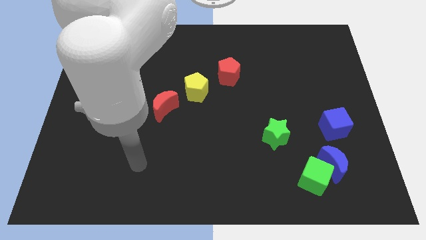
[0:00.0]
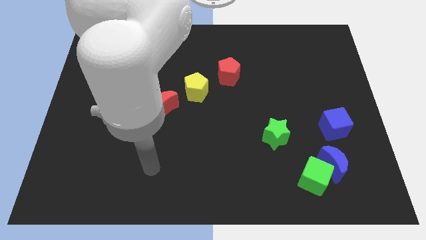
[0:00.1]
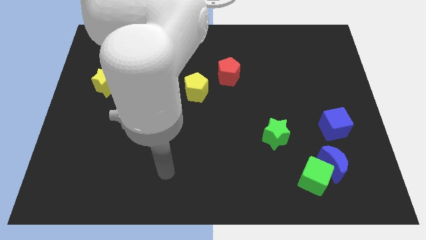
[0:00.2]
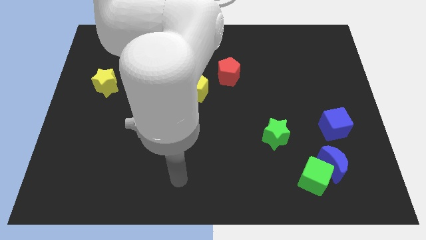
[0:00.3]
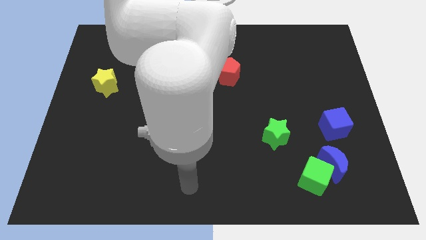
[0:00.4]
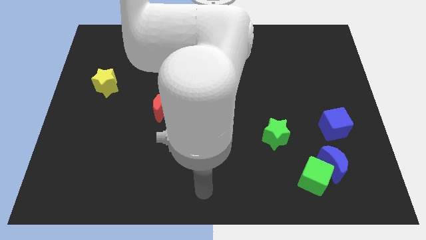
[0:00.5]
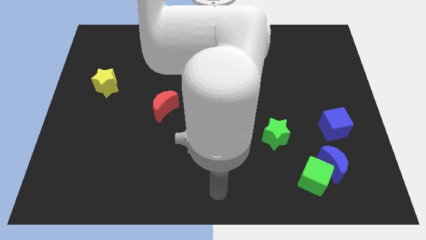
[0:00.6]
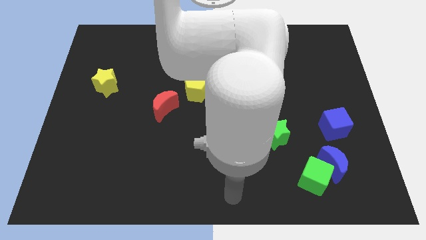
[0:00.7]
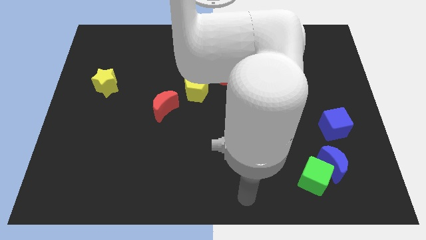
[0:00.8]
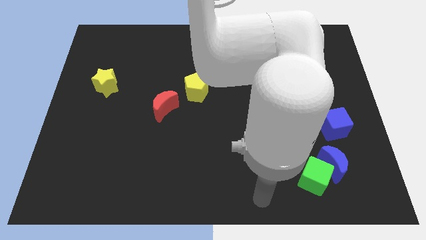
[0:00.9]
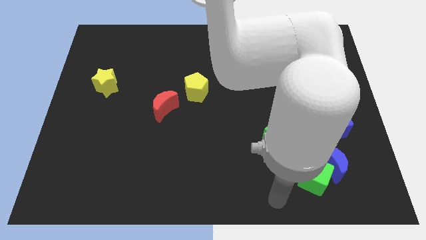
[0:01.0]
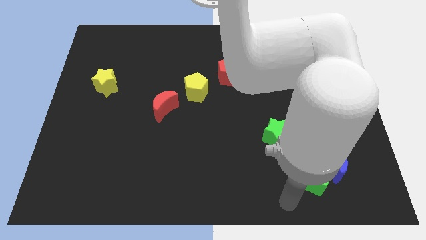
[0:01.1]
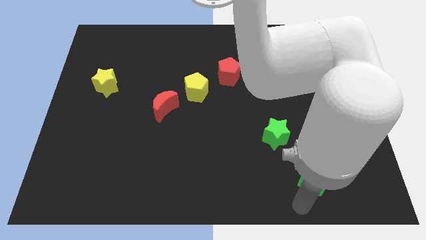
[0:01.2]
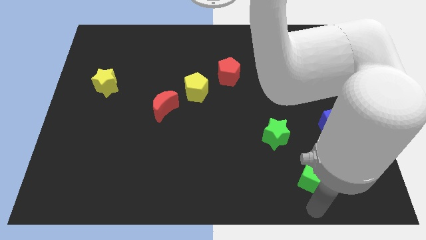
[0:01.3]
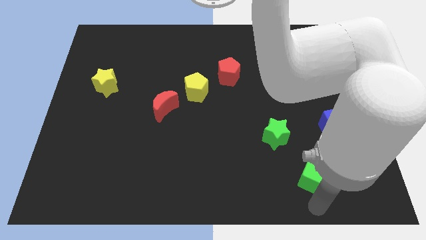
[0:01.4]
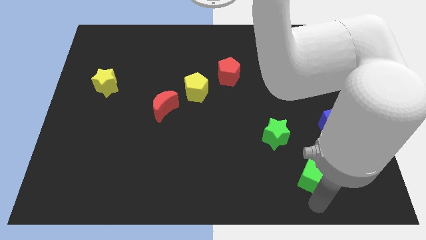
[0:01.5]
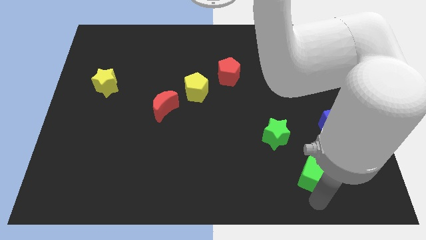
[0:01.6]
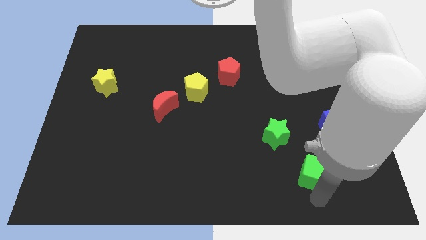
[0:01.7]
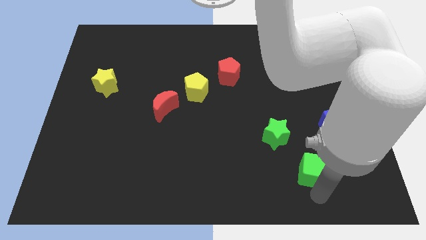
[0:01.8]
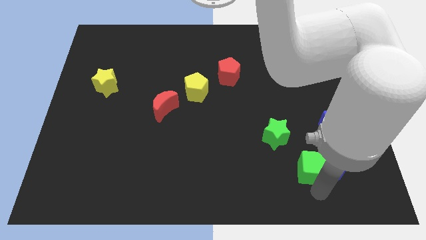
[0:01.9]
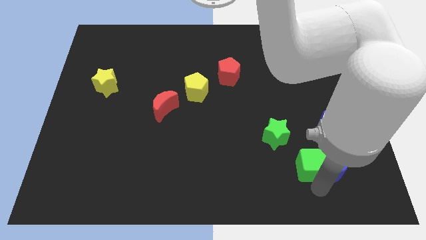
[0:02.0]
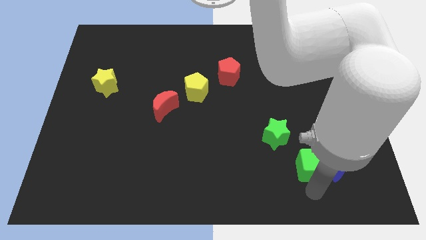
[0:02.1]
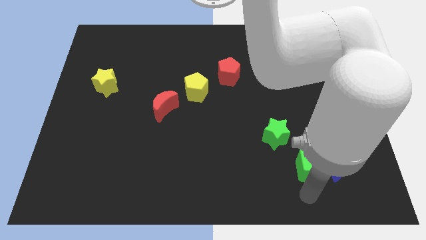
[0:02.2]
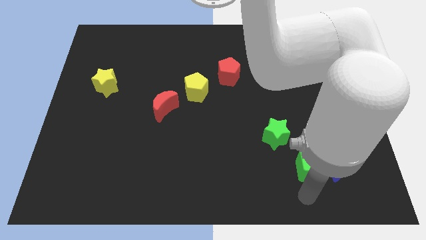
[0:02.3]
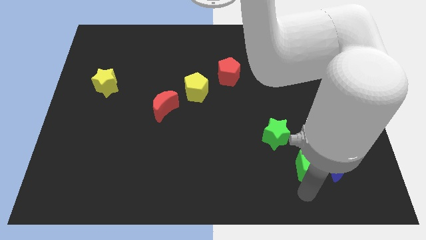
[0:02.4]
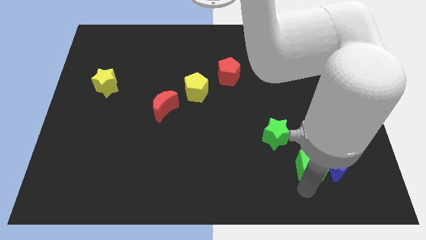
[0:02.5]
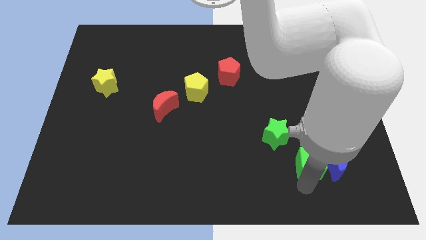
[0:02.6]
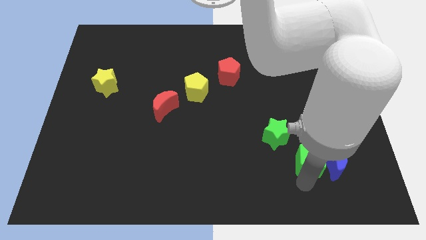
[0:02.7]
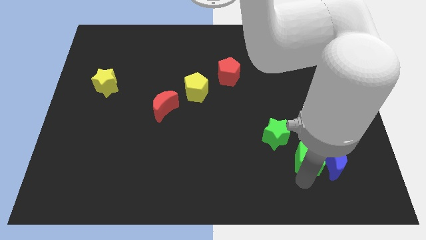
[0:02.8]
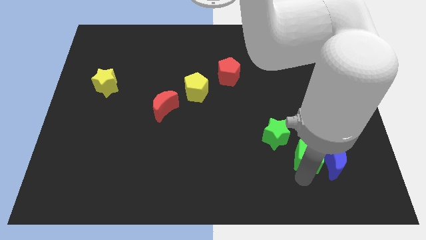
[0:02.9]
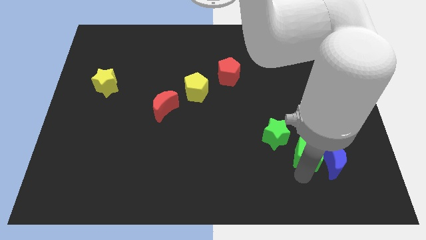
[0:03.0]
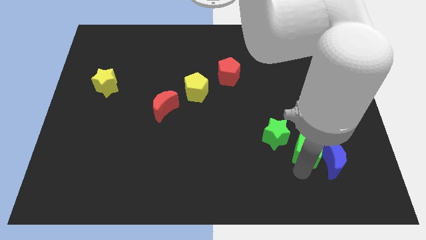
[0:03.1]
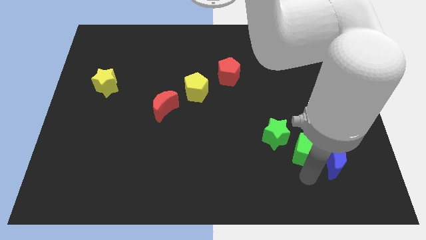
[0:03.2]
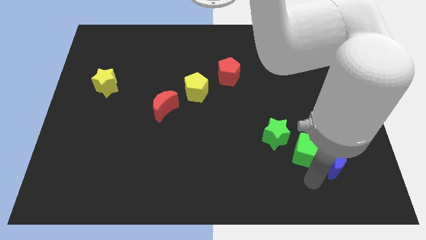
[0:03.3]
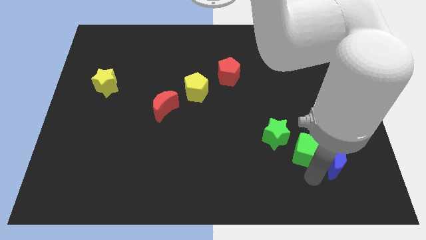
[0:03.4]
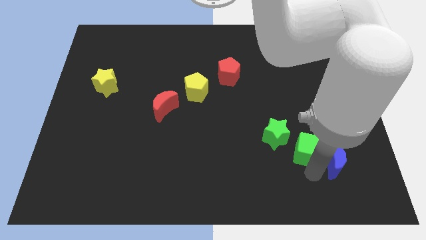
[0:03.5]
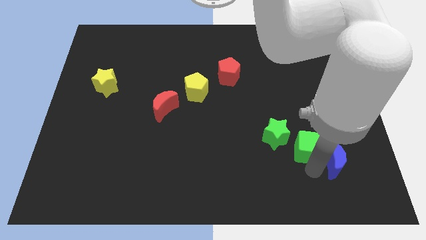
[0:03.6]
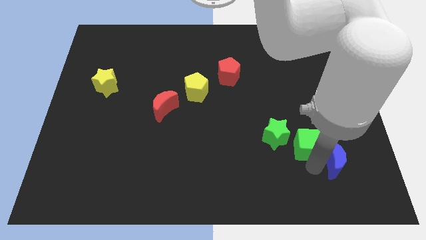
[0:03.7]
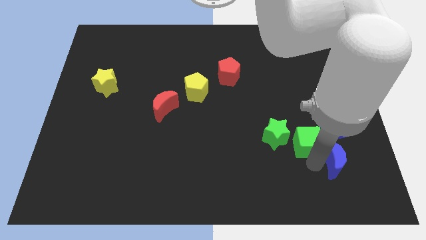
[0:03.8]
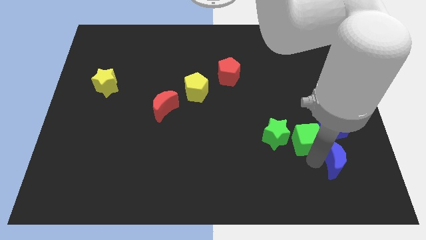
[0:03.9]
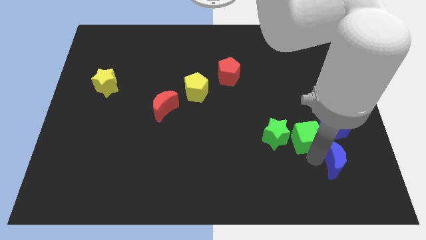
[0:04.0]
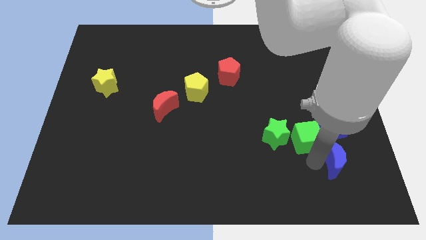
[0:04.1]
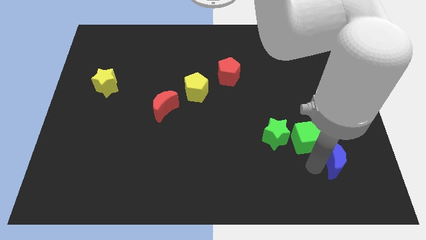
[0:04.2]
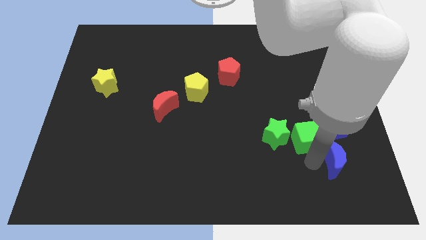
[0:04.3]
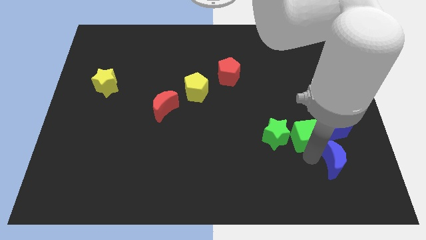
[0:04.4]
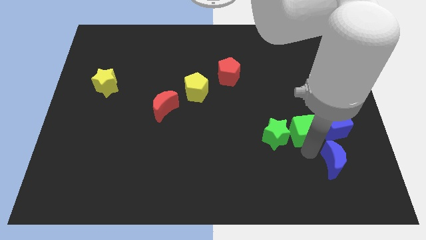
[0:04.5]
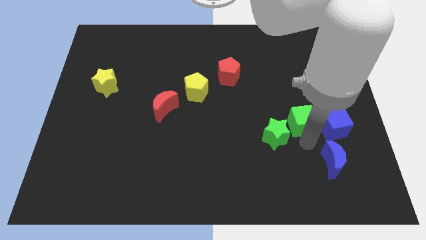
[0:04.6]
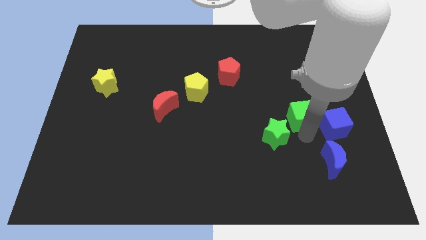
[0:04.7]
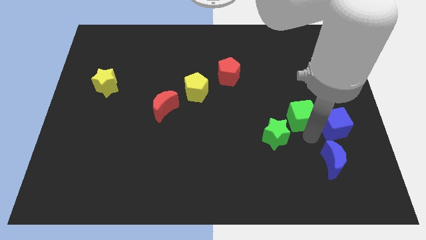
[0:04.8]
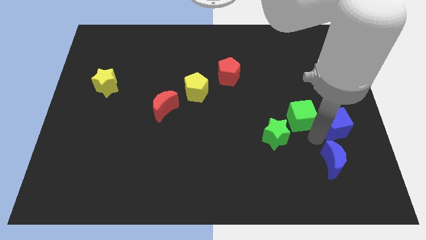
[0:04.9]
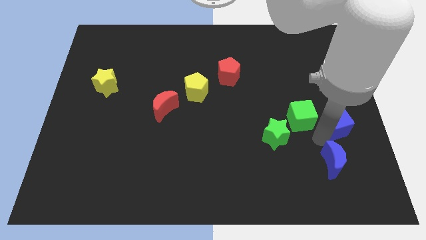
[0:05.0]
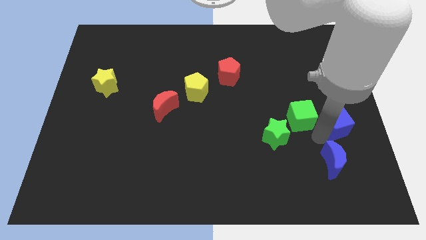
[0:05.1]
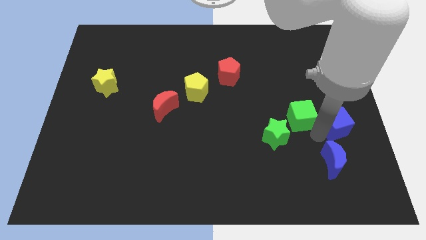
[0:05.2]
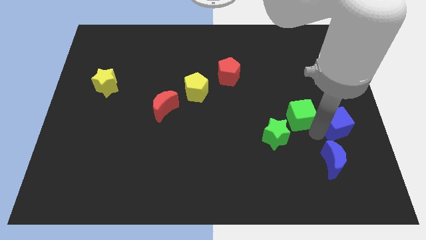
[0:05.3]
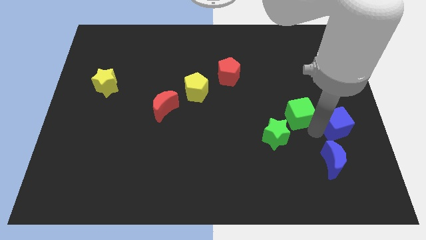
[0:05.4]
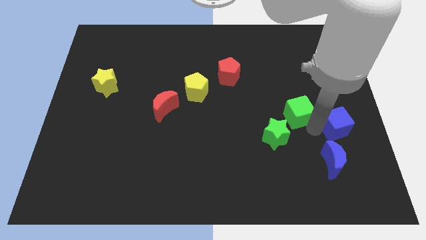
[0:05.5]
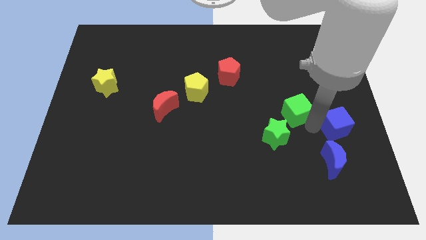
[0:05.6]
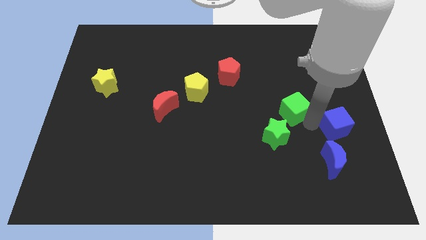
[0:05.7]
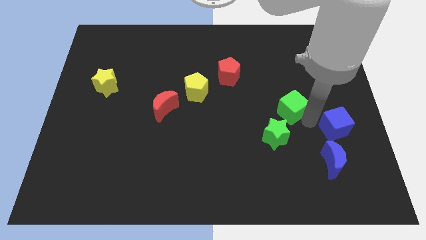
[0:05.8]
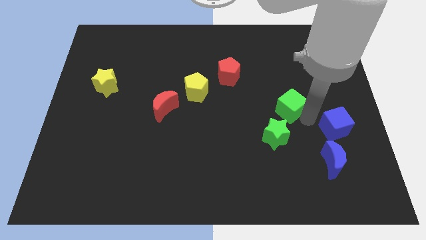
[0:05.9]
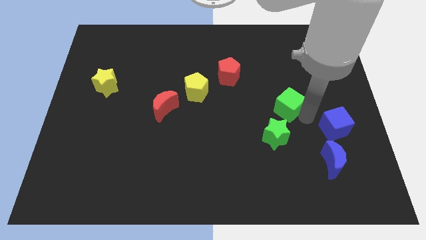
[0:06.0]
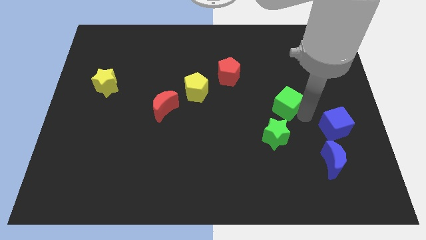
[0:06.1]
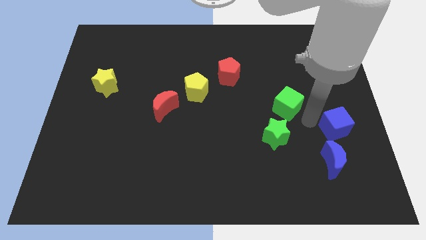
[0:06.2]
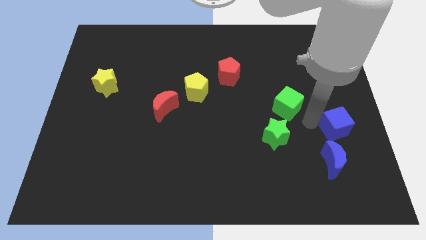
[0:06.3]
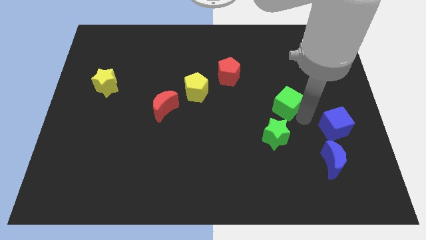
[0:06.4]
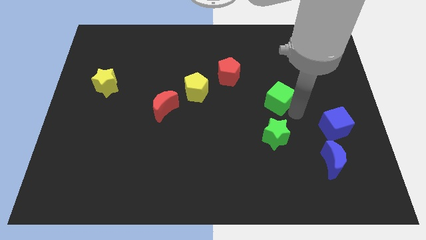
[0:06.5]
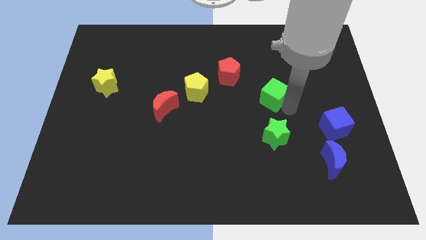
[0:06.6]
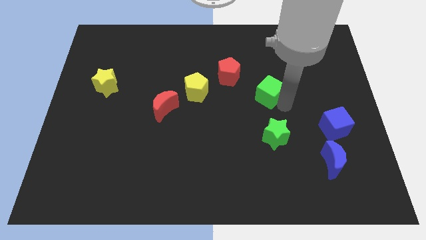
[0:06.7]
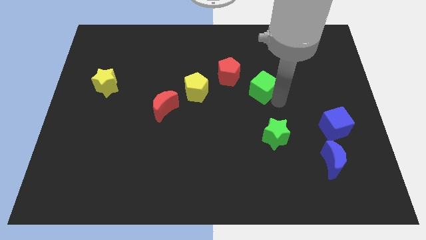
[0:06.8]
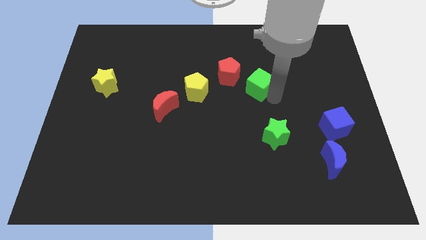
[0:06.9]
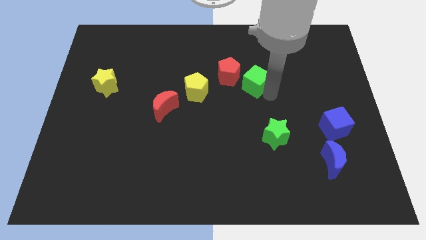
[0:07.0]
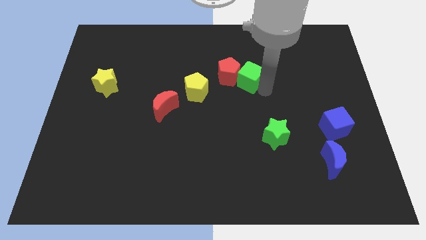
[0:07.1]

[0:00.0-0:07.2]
slide the green cube close to the red pentagon
